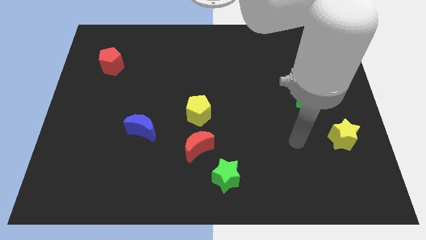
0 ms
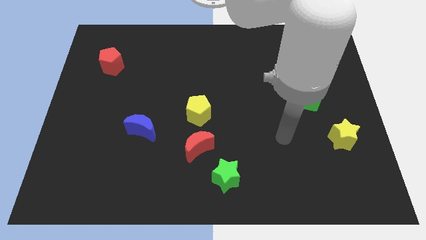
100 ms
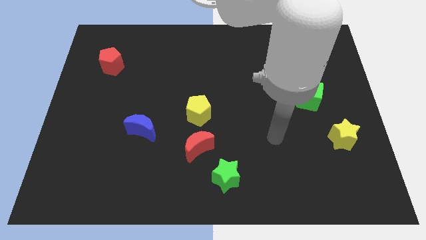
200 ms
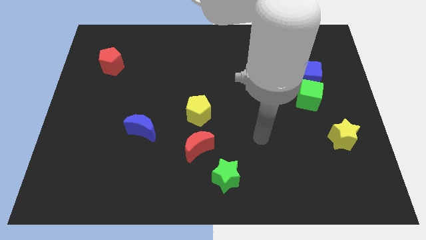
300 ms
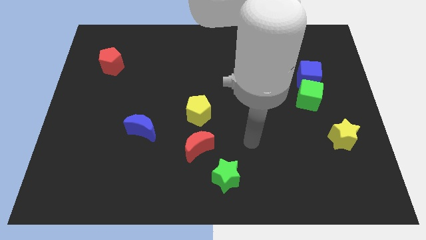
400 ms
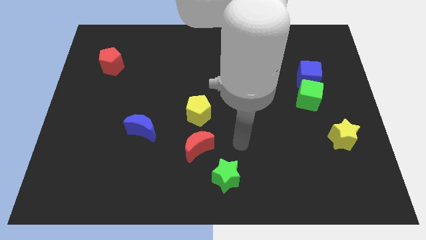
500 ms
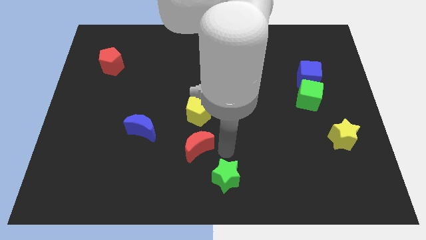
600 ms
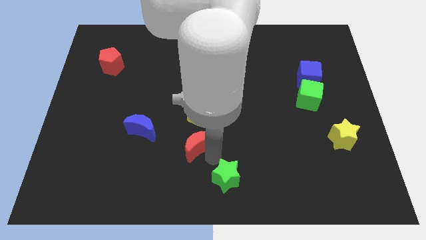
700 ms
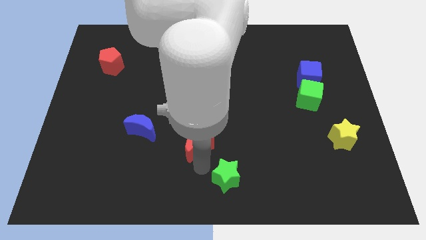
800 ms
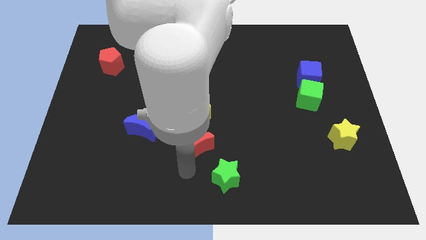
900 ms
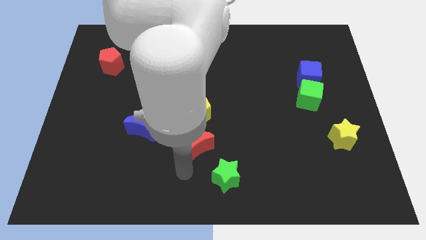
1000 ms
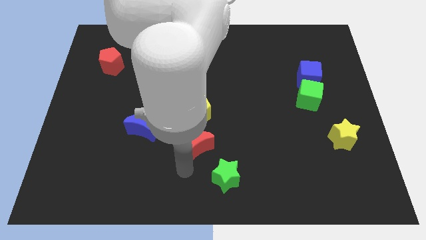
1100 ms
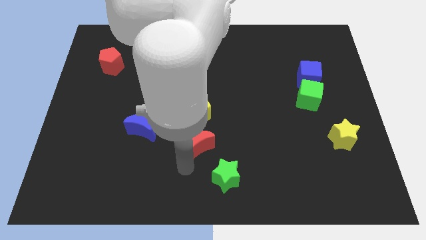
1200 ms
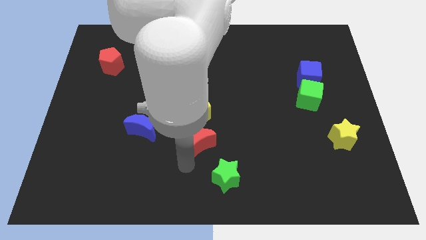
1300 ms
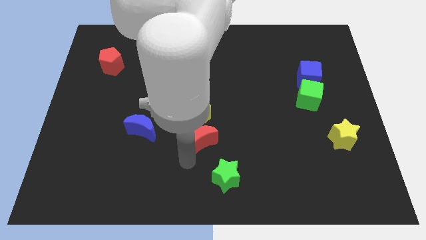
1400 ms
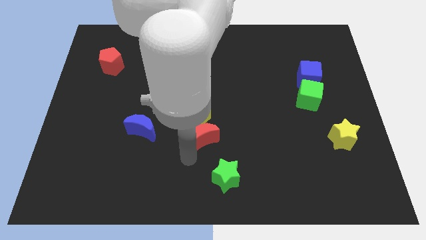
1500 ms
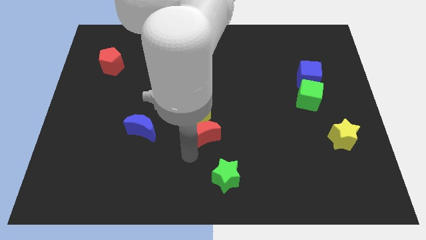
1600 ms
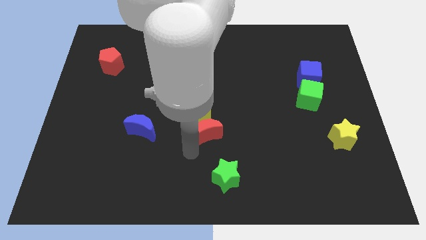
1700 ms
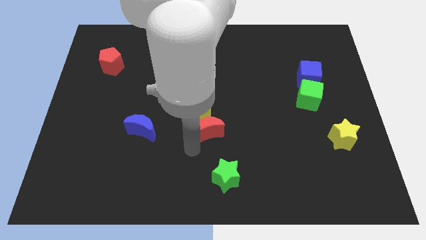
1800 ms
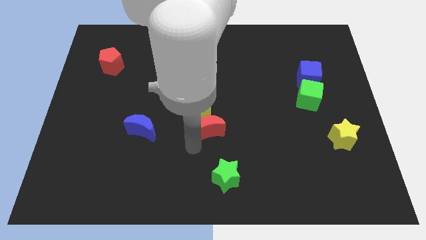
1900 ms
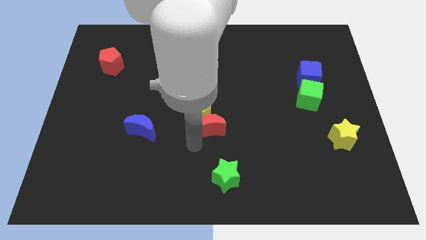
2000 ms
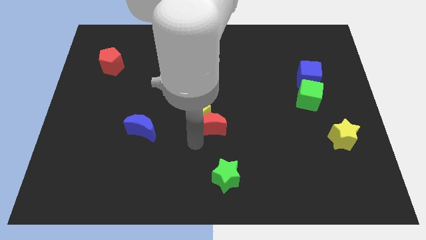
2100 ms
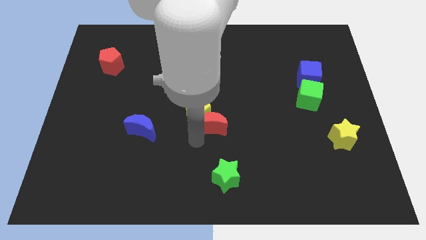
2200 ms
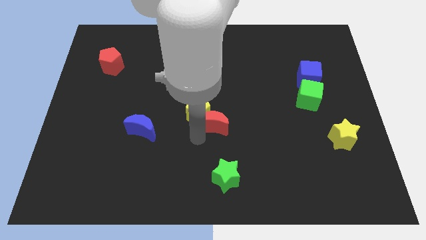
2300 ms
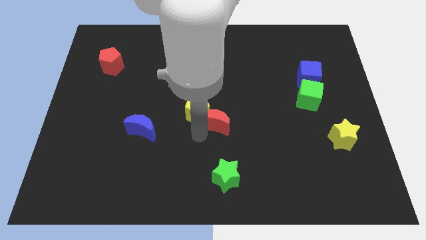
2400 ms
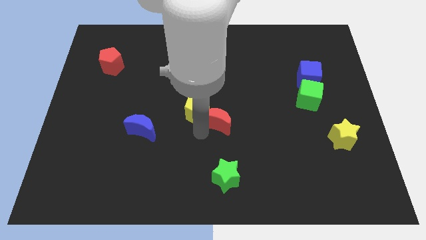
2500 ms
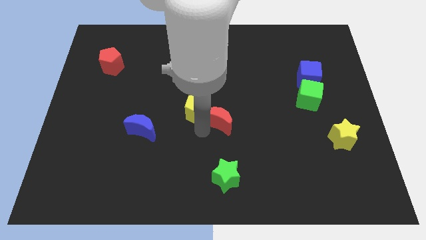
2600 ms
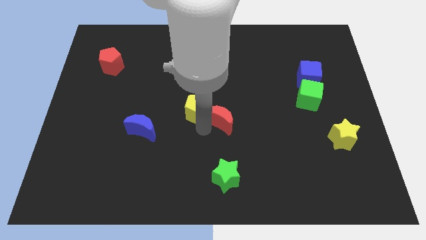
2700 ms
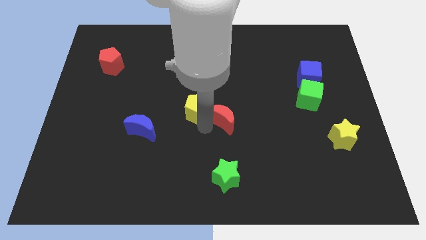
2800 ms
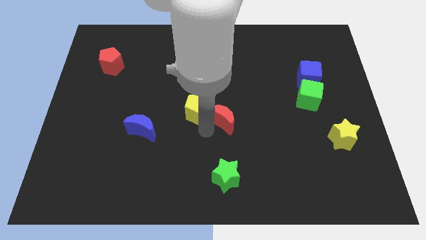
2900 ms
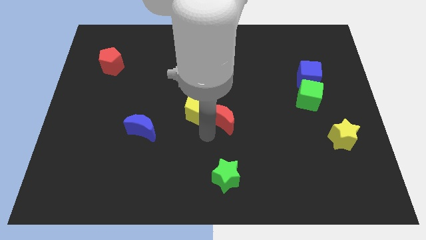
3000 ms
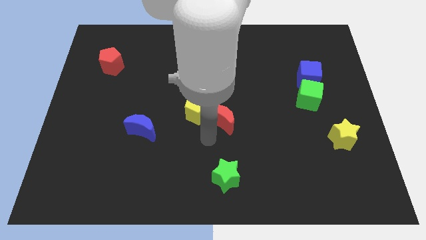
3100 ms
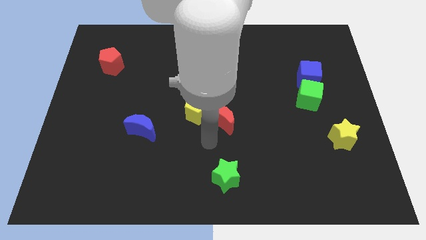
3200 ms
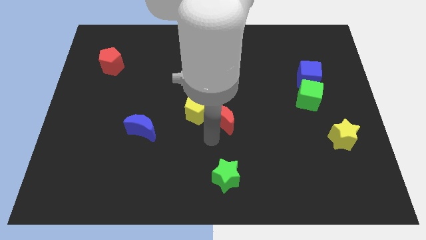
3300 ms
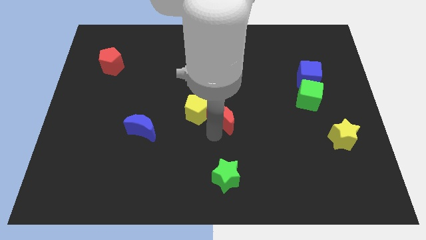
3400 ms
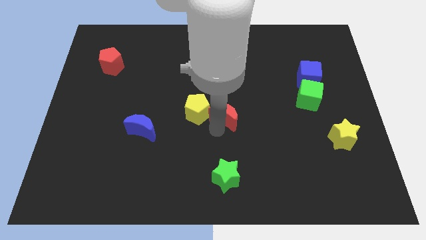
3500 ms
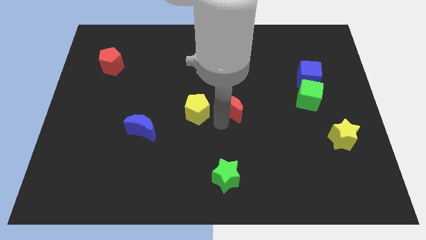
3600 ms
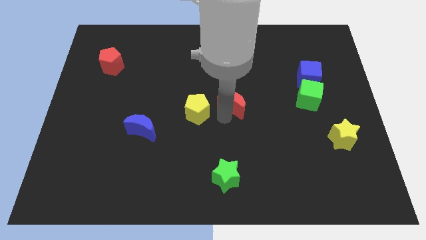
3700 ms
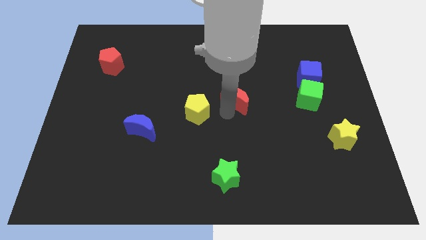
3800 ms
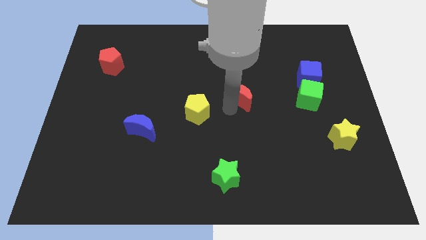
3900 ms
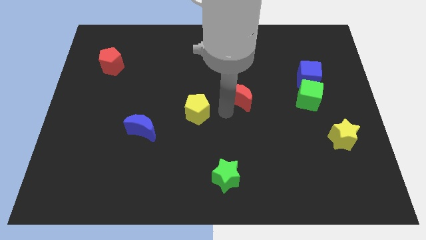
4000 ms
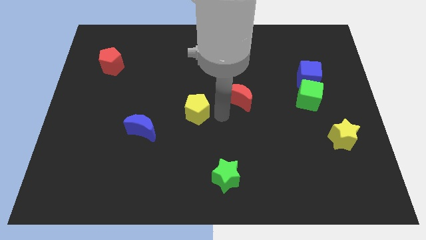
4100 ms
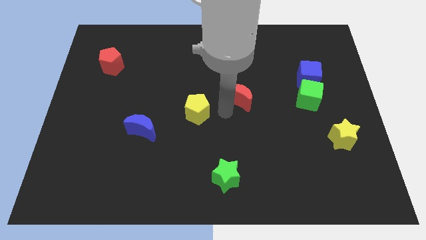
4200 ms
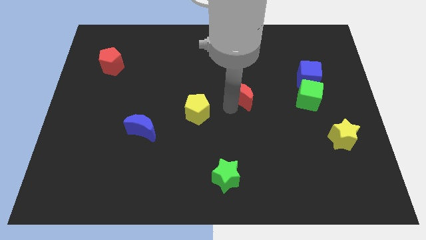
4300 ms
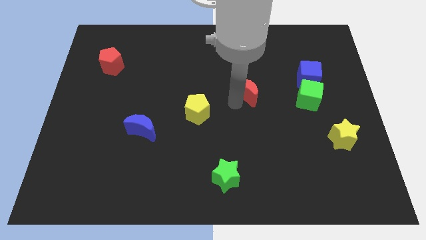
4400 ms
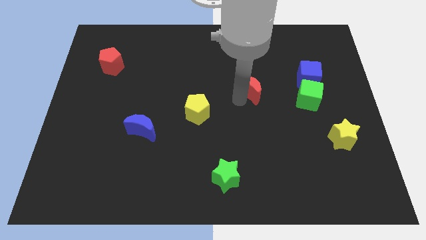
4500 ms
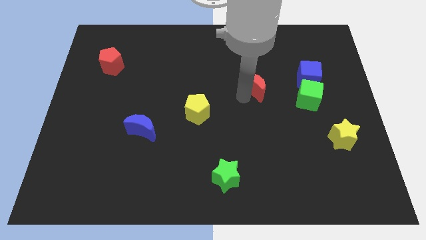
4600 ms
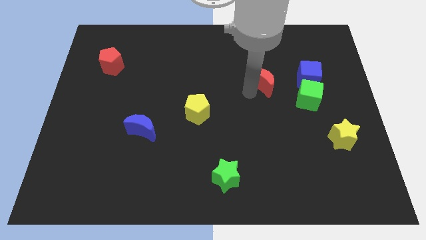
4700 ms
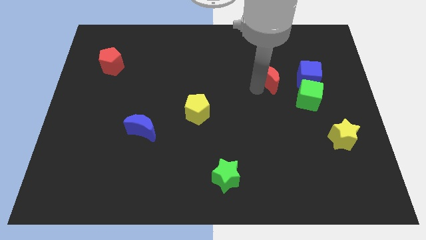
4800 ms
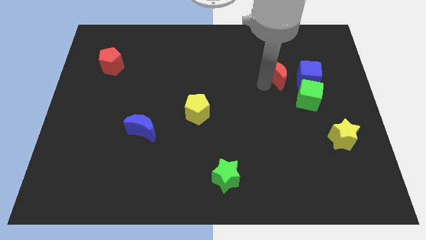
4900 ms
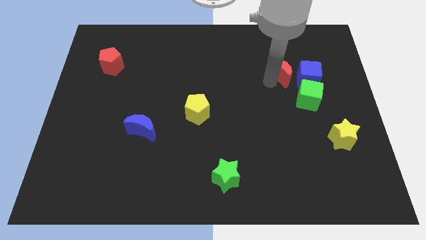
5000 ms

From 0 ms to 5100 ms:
put the red moon to the top left side of the blue cube

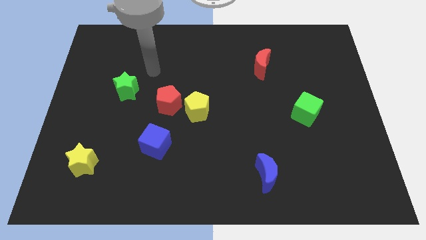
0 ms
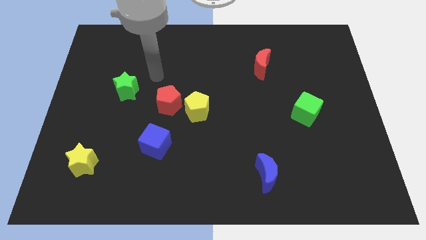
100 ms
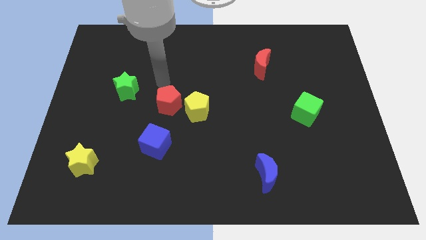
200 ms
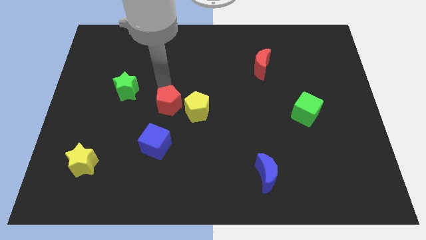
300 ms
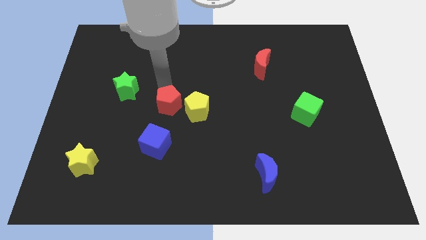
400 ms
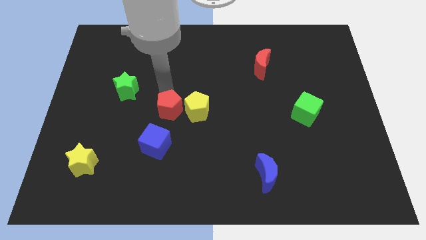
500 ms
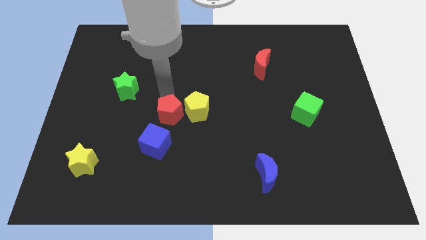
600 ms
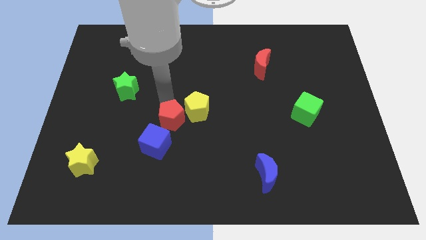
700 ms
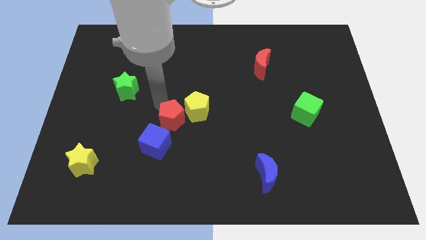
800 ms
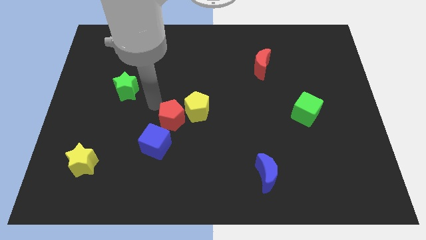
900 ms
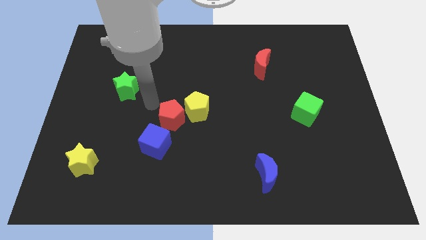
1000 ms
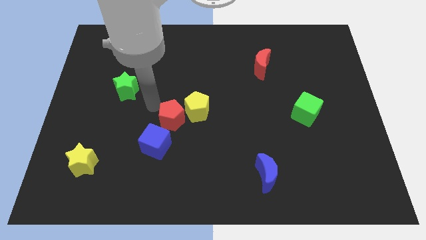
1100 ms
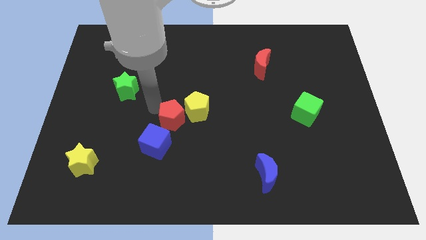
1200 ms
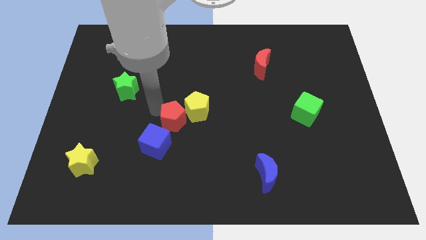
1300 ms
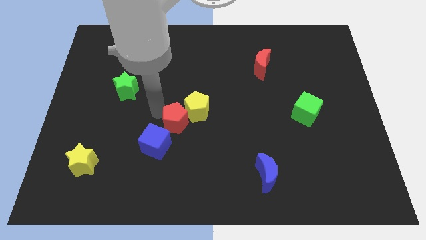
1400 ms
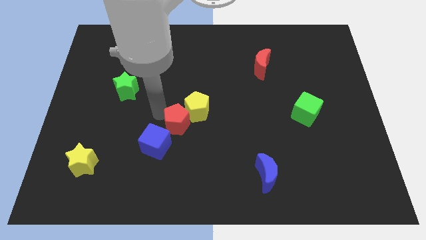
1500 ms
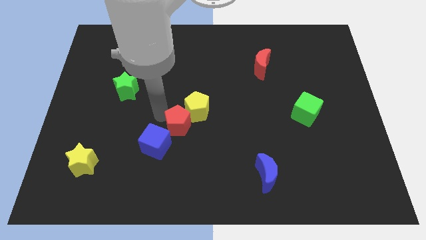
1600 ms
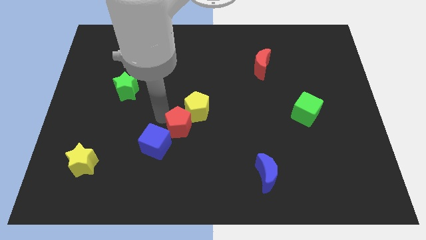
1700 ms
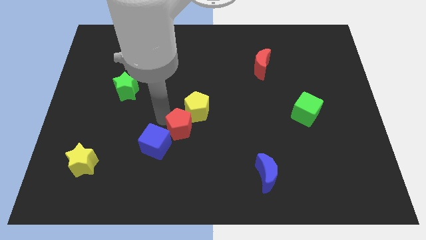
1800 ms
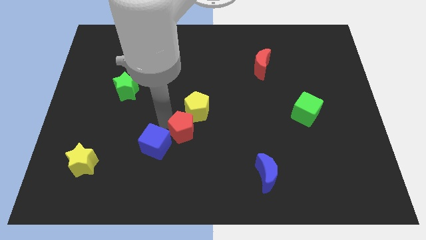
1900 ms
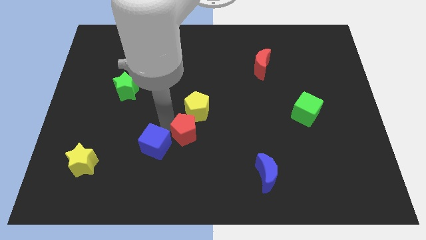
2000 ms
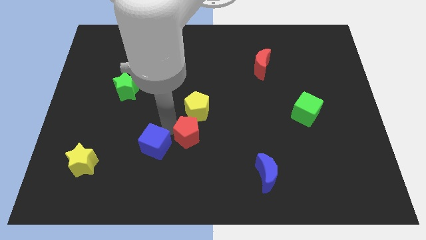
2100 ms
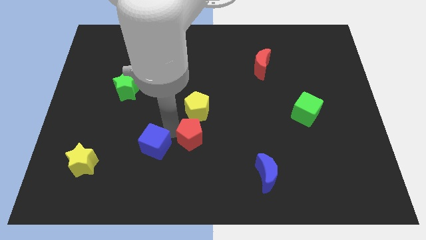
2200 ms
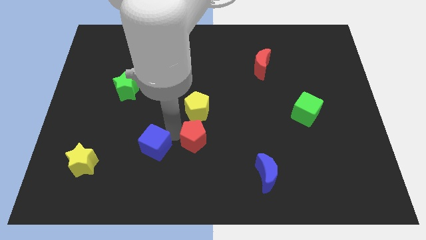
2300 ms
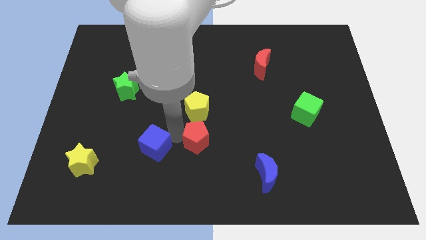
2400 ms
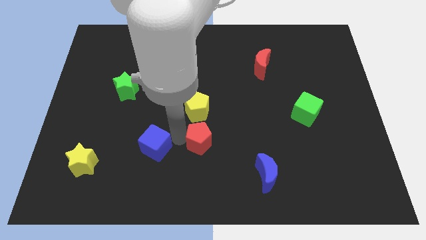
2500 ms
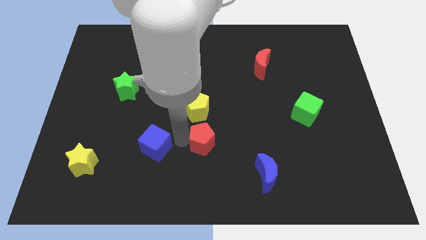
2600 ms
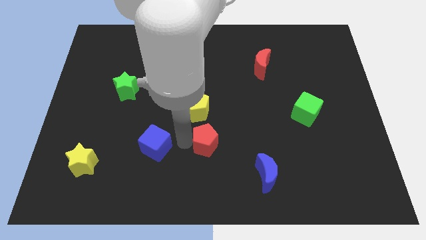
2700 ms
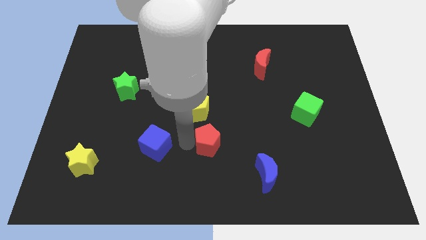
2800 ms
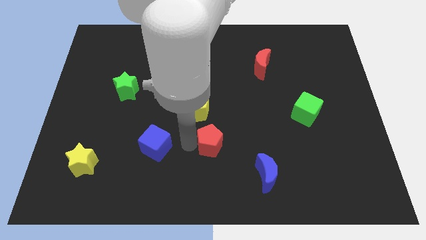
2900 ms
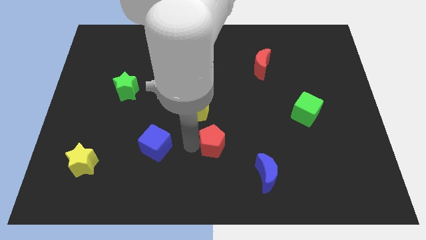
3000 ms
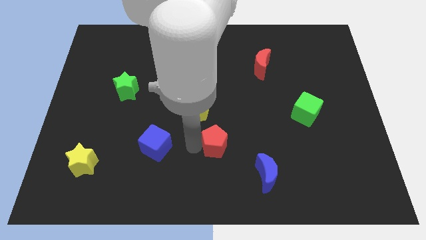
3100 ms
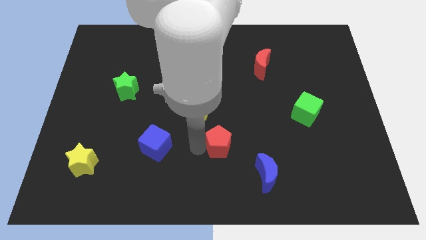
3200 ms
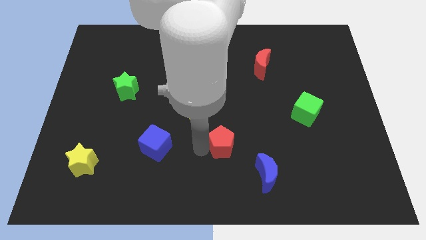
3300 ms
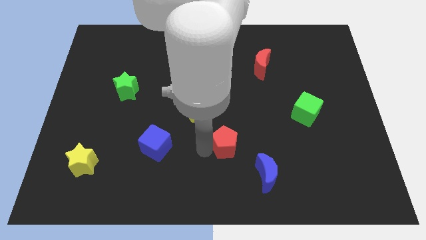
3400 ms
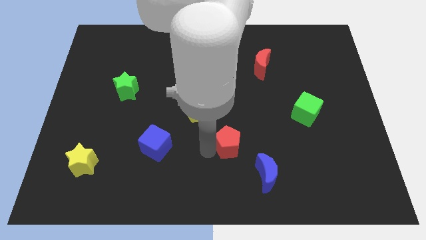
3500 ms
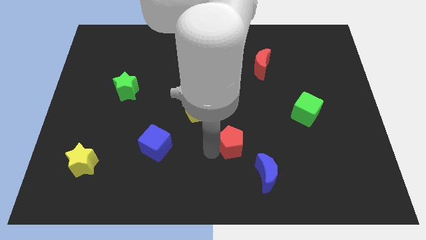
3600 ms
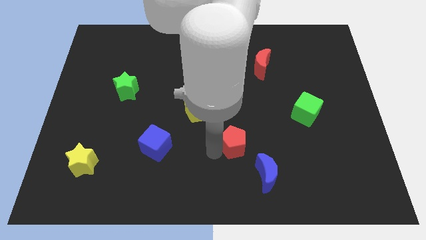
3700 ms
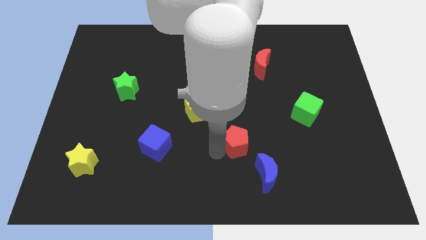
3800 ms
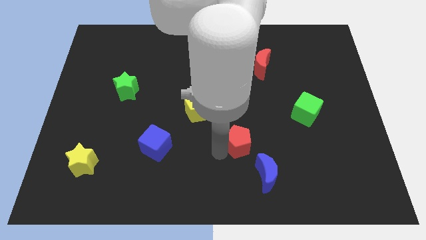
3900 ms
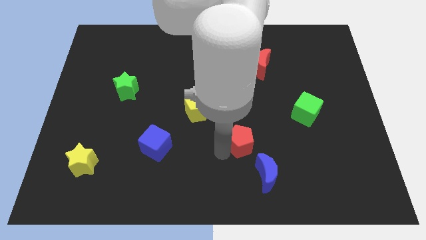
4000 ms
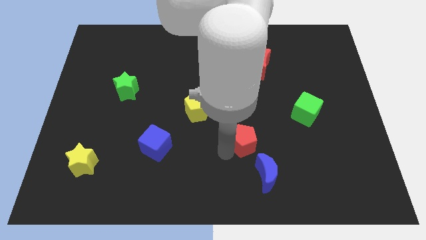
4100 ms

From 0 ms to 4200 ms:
move the red pentagon above the blue moon
